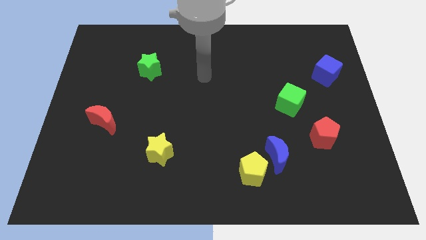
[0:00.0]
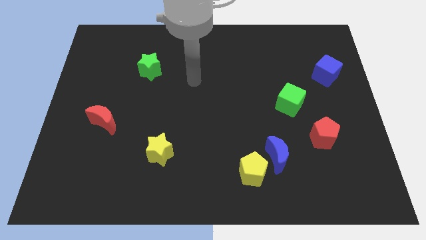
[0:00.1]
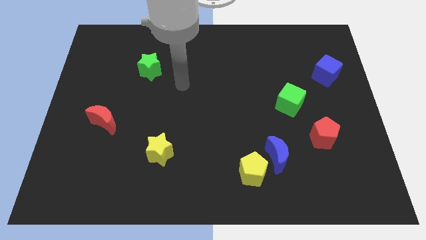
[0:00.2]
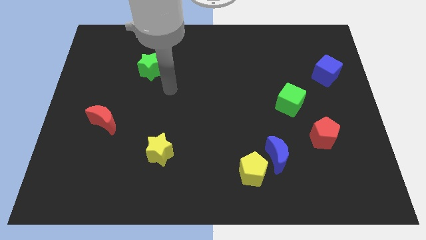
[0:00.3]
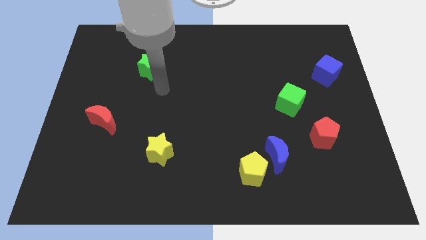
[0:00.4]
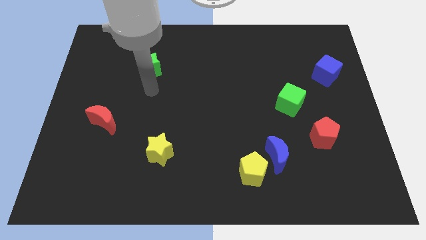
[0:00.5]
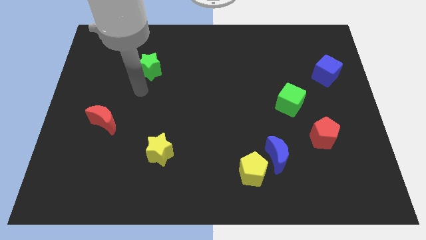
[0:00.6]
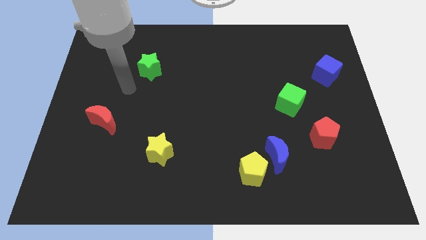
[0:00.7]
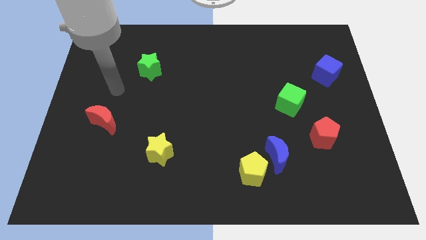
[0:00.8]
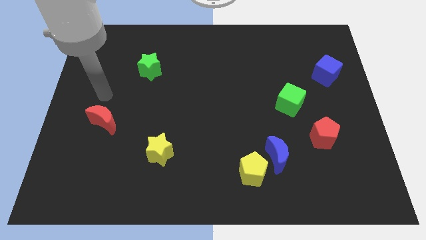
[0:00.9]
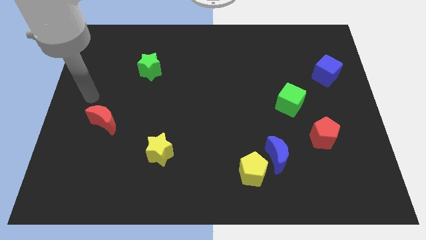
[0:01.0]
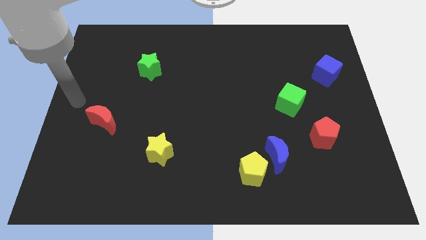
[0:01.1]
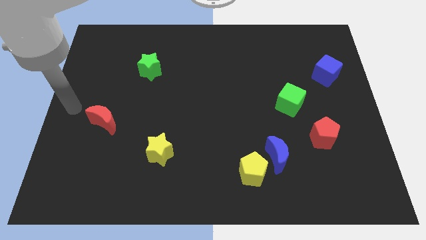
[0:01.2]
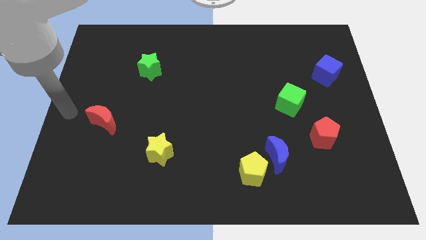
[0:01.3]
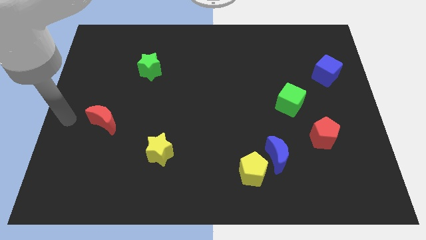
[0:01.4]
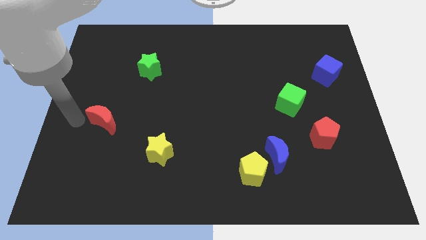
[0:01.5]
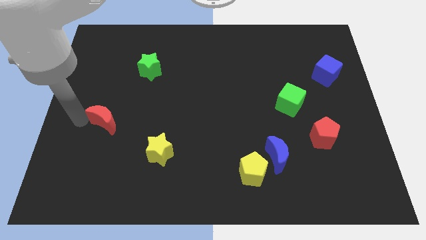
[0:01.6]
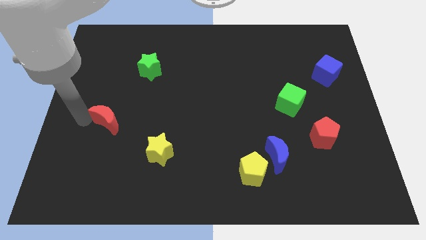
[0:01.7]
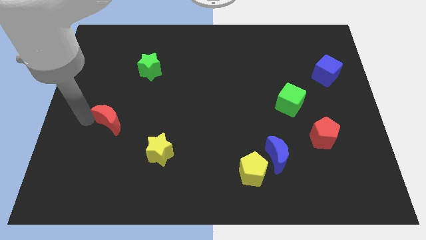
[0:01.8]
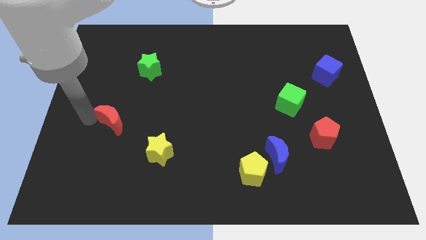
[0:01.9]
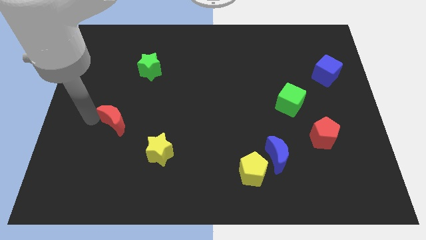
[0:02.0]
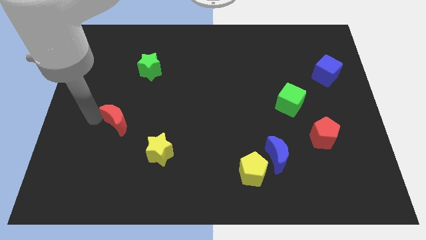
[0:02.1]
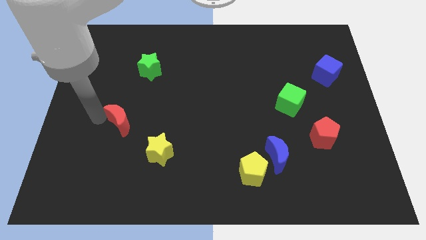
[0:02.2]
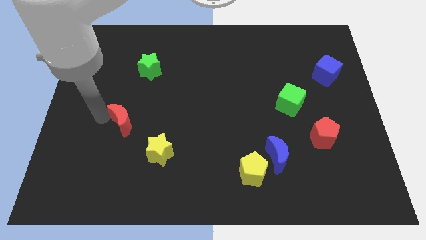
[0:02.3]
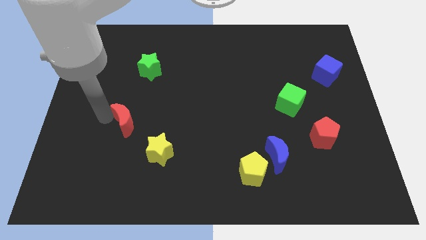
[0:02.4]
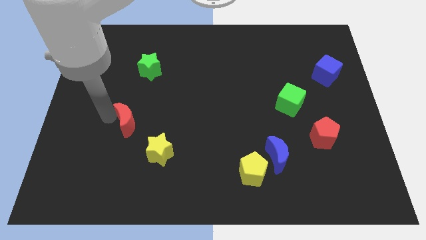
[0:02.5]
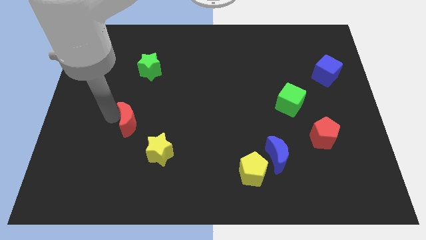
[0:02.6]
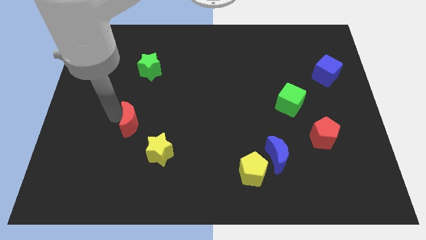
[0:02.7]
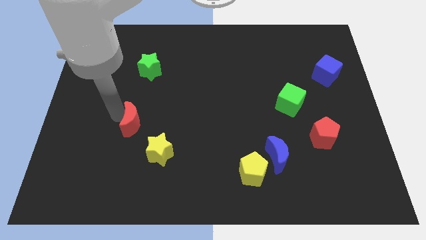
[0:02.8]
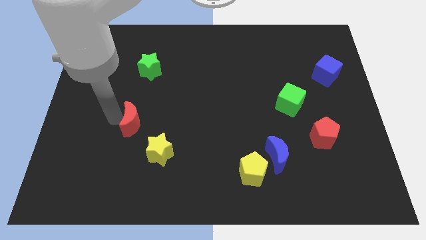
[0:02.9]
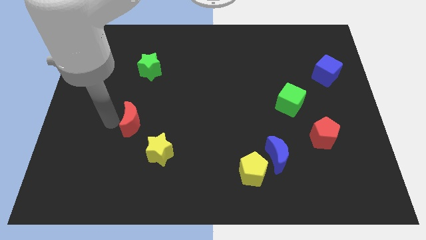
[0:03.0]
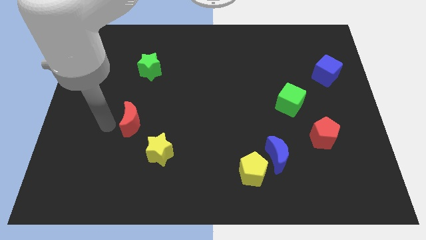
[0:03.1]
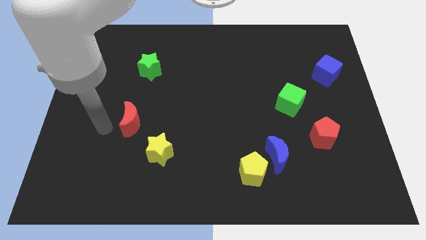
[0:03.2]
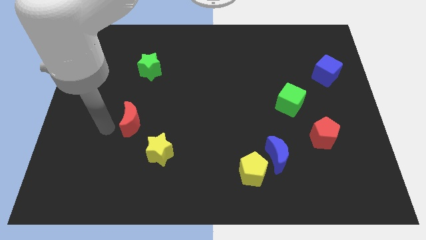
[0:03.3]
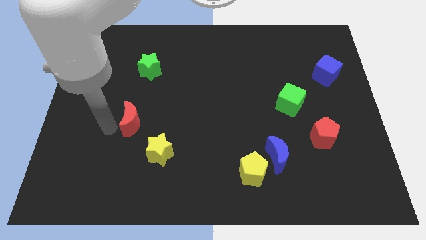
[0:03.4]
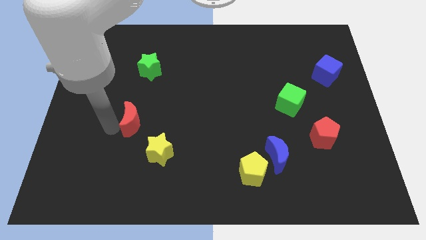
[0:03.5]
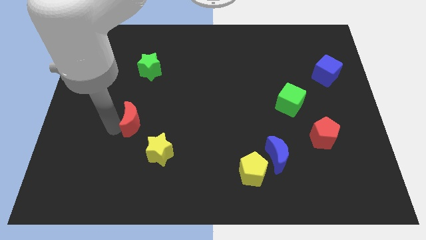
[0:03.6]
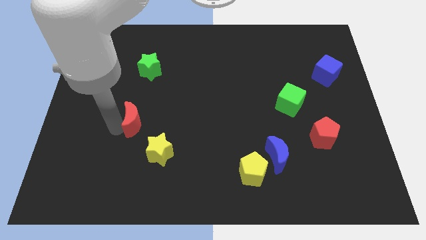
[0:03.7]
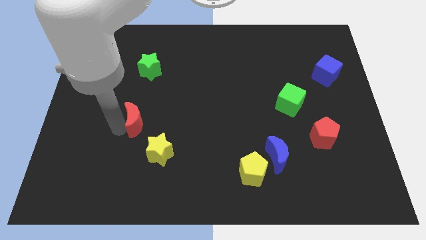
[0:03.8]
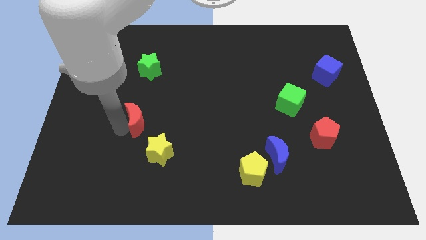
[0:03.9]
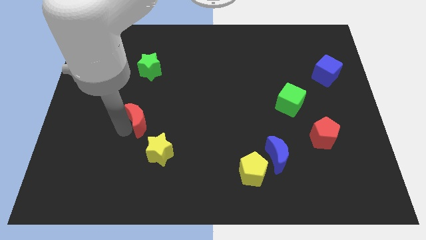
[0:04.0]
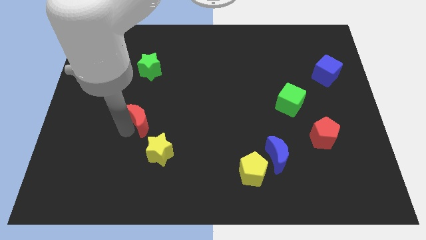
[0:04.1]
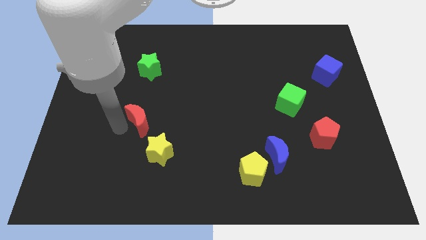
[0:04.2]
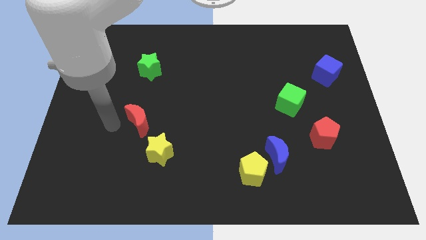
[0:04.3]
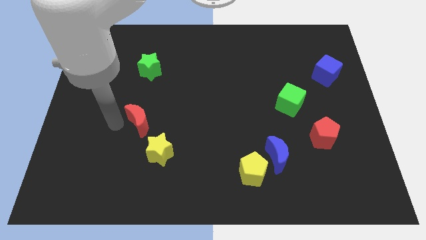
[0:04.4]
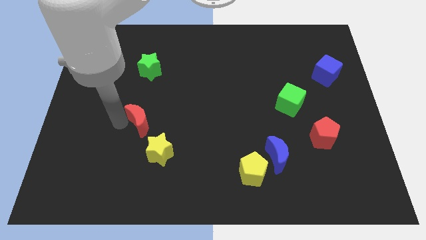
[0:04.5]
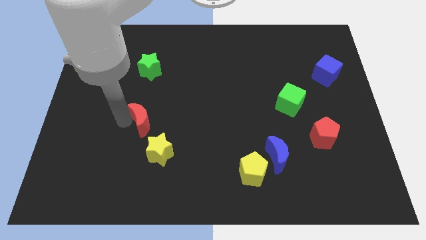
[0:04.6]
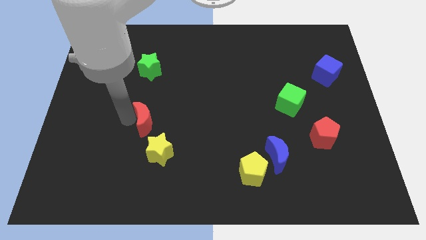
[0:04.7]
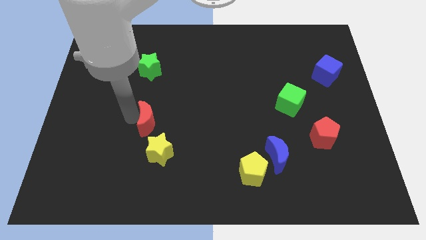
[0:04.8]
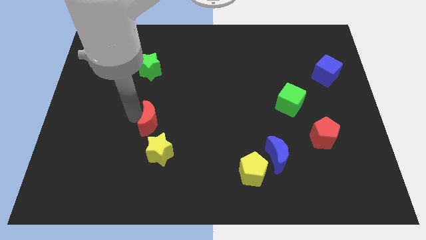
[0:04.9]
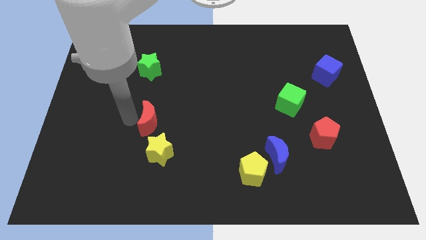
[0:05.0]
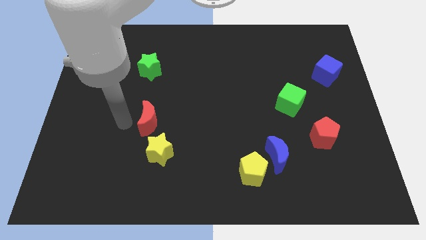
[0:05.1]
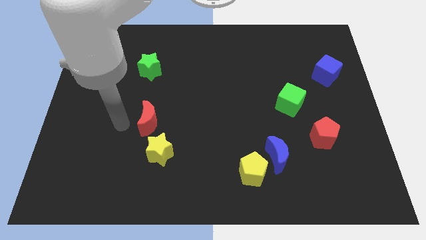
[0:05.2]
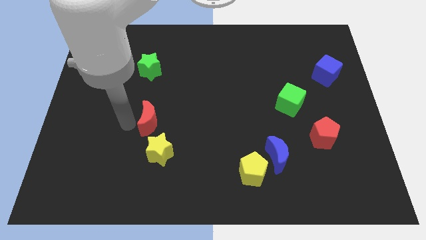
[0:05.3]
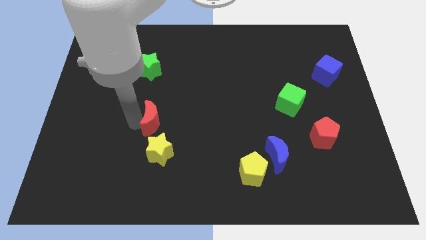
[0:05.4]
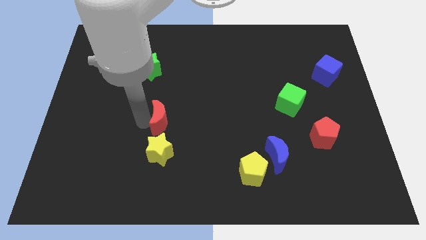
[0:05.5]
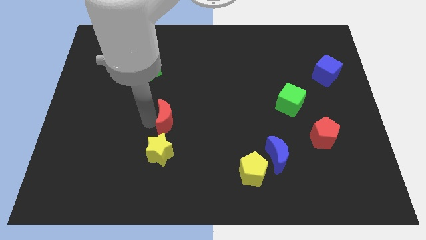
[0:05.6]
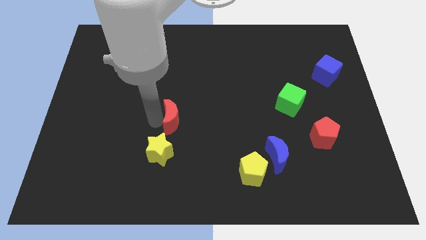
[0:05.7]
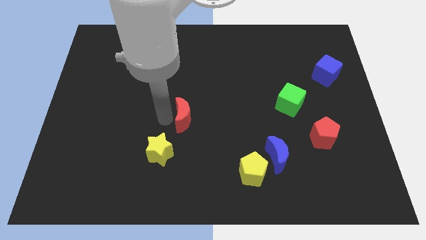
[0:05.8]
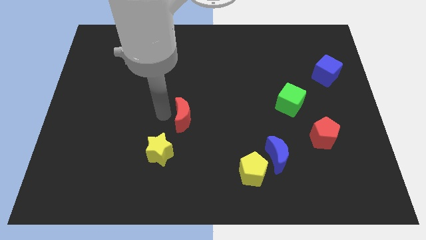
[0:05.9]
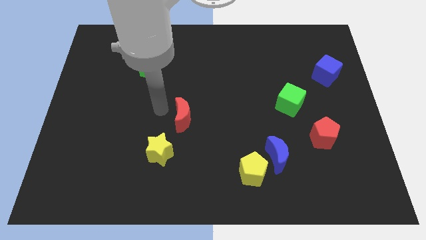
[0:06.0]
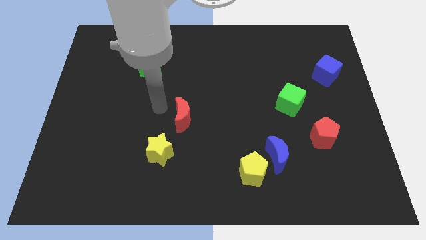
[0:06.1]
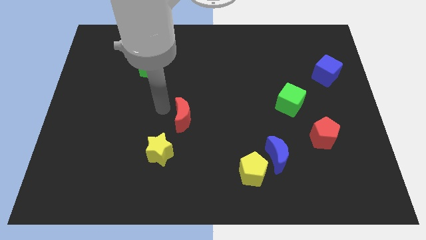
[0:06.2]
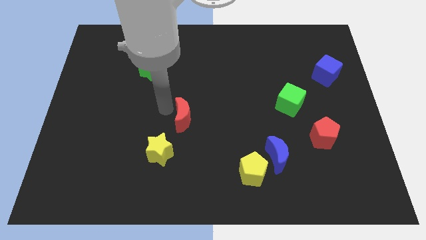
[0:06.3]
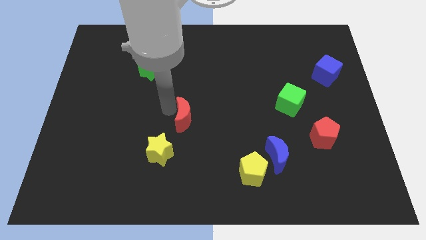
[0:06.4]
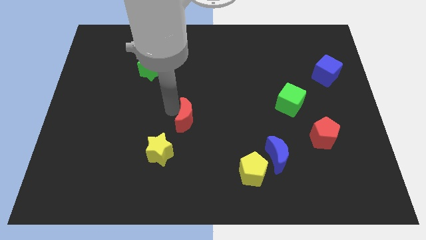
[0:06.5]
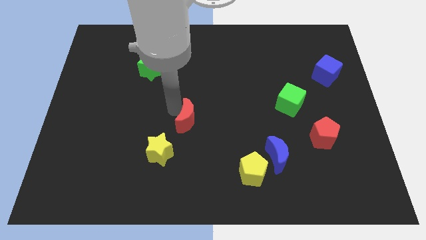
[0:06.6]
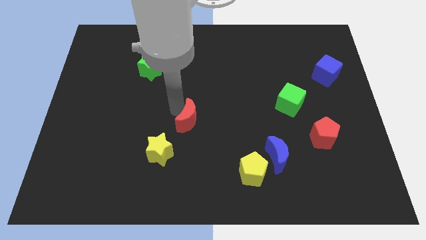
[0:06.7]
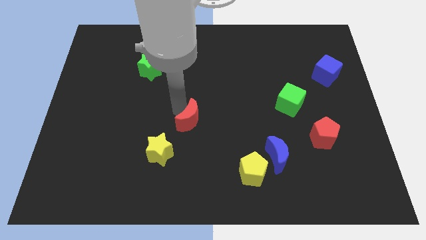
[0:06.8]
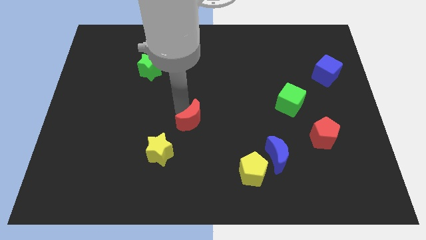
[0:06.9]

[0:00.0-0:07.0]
push the red moon to the right

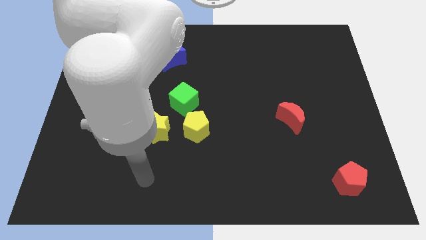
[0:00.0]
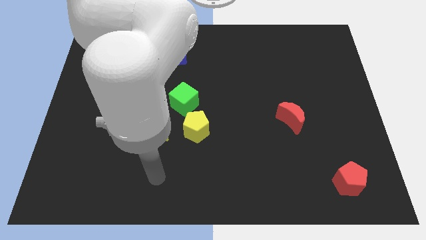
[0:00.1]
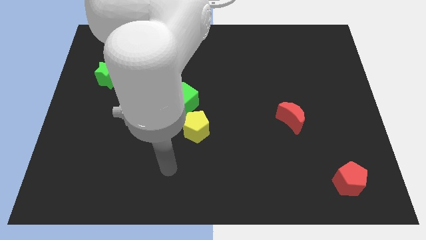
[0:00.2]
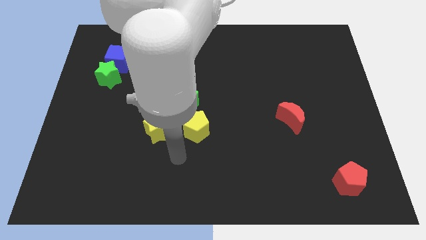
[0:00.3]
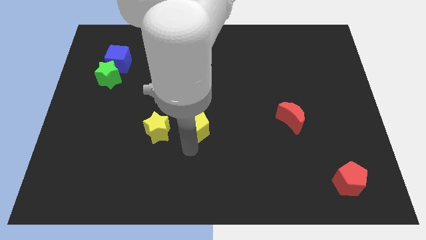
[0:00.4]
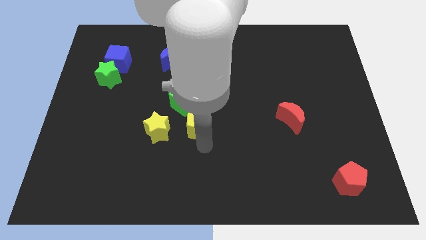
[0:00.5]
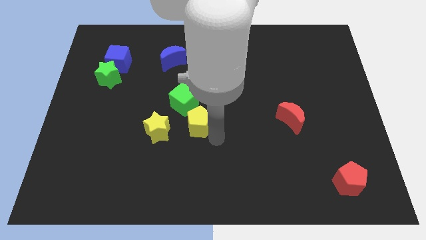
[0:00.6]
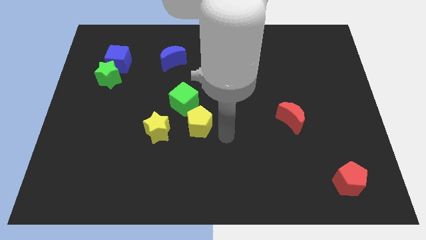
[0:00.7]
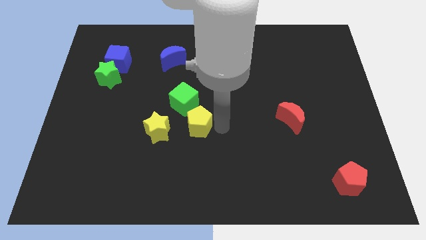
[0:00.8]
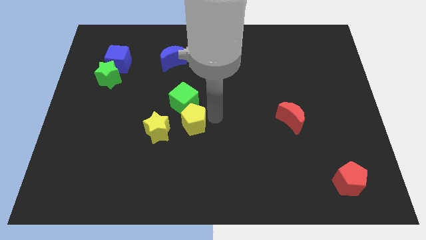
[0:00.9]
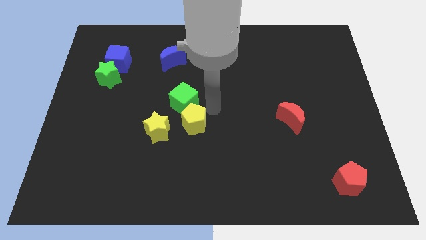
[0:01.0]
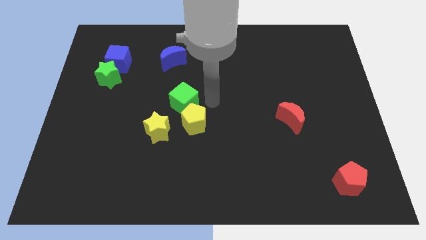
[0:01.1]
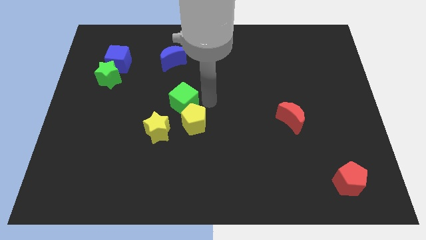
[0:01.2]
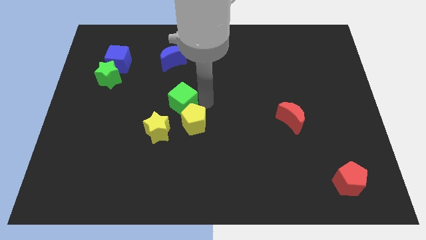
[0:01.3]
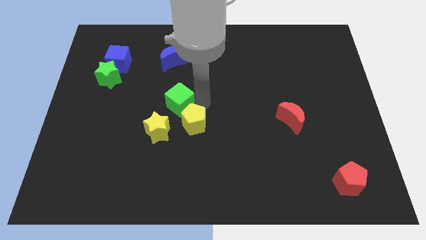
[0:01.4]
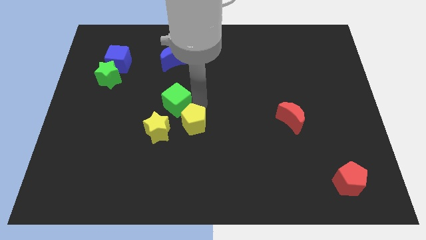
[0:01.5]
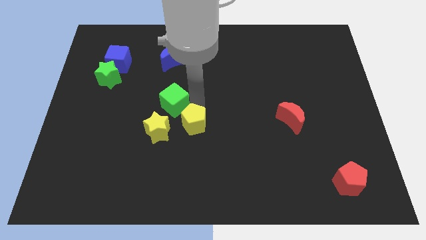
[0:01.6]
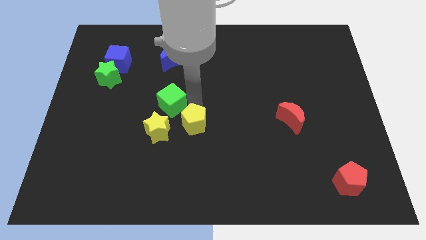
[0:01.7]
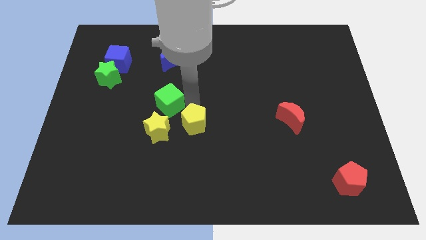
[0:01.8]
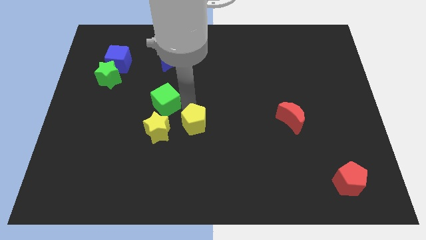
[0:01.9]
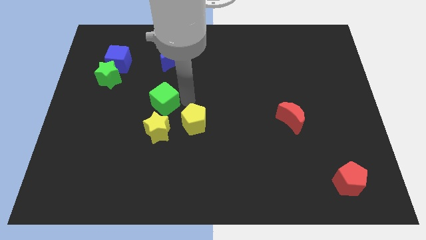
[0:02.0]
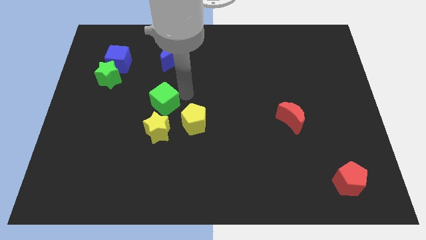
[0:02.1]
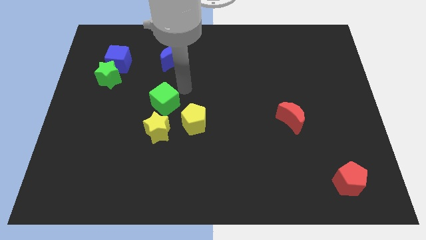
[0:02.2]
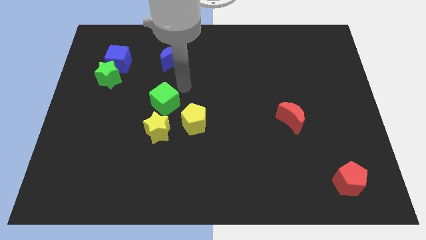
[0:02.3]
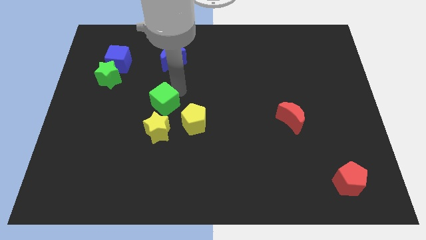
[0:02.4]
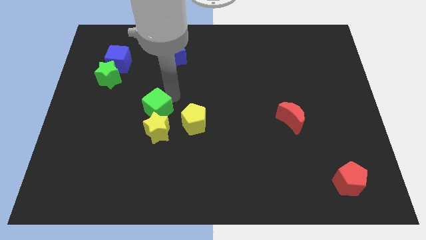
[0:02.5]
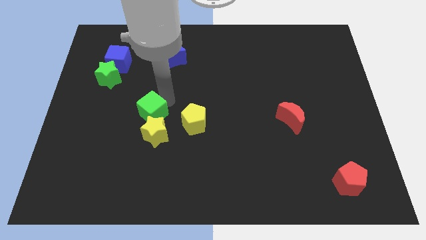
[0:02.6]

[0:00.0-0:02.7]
slide the green cube diagonally down and left a bit
